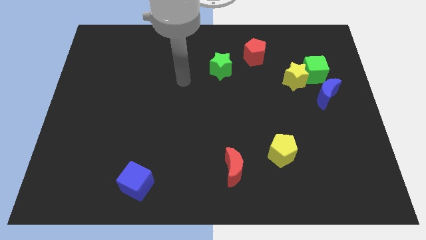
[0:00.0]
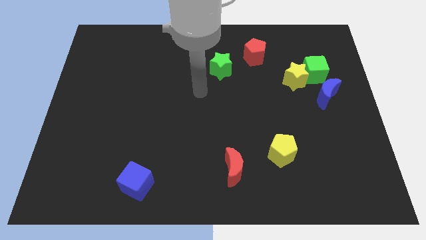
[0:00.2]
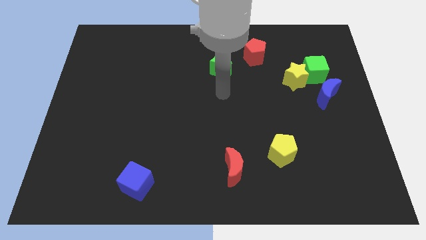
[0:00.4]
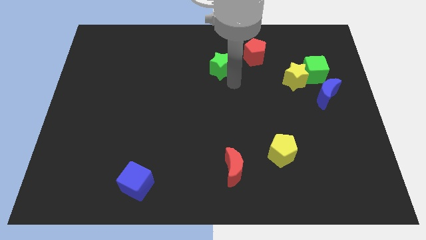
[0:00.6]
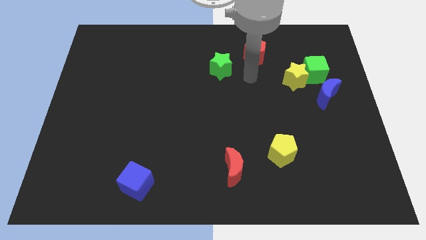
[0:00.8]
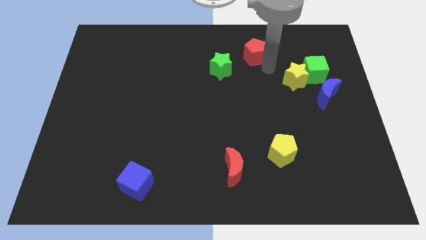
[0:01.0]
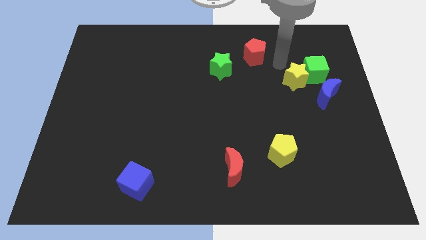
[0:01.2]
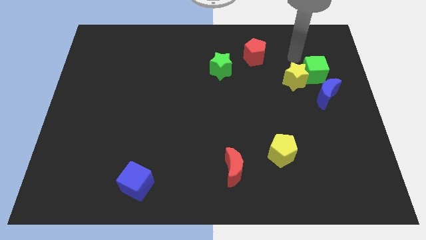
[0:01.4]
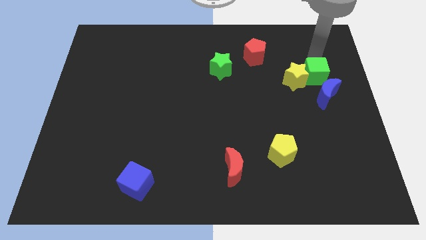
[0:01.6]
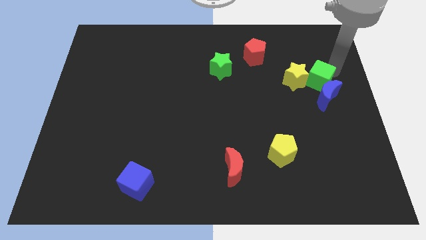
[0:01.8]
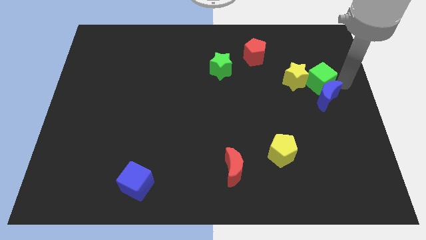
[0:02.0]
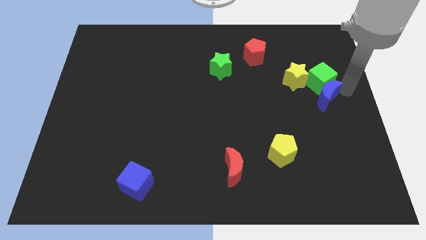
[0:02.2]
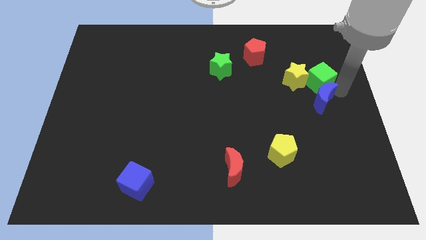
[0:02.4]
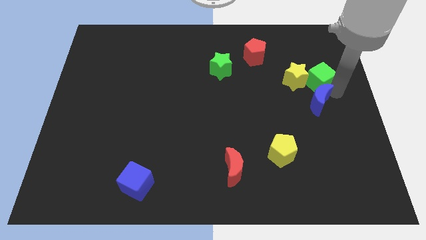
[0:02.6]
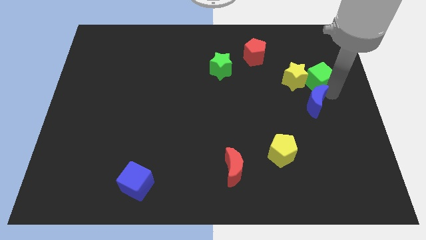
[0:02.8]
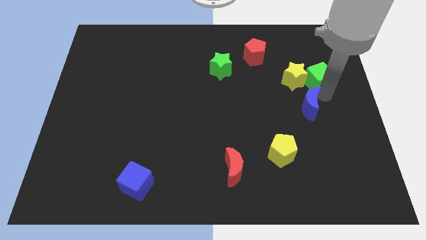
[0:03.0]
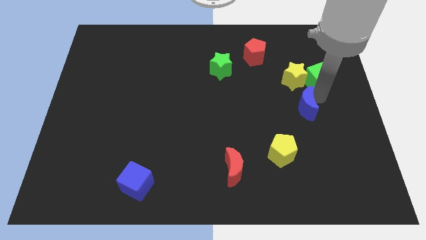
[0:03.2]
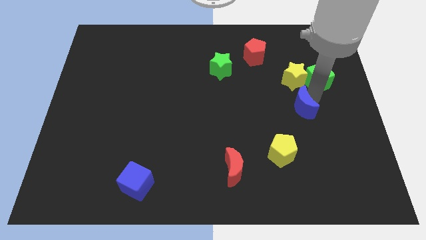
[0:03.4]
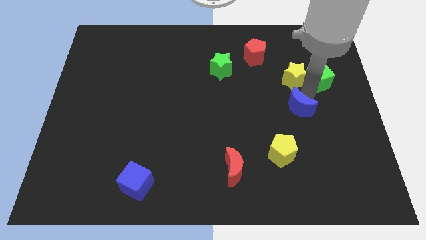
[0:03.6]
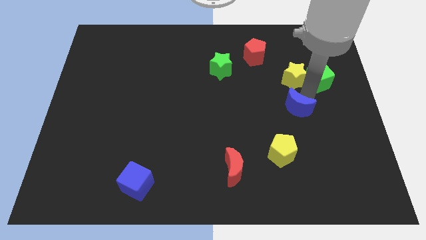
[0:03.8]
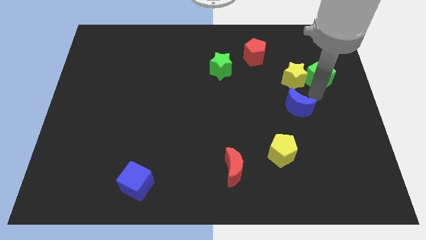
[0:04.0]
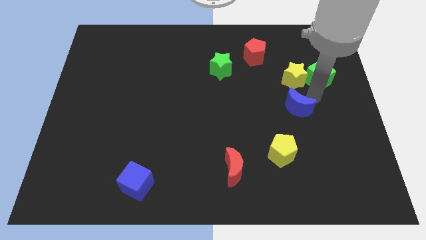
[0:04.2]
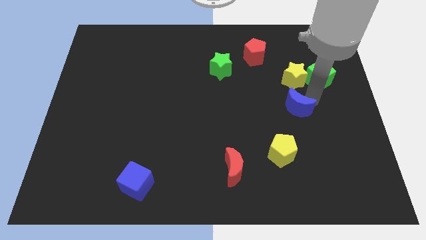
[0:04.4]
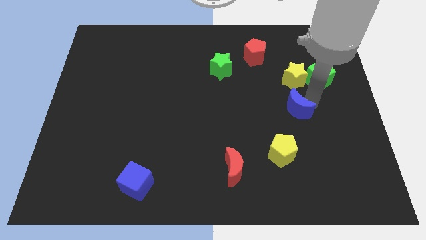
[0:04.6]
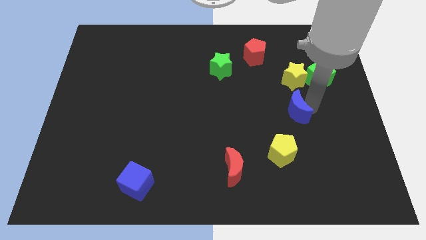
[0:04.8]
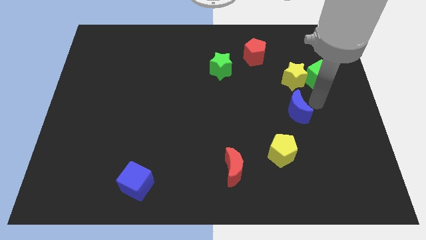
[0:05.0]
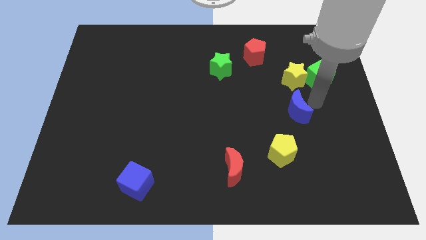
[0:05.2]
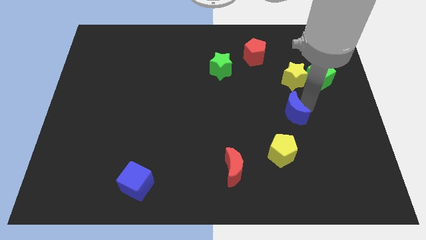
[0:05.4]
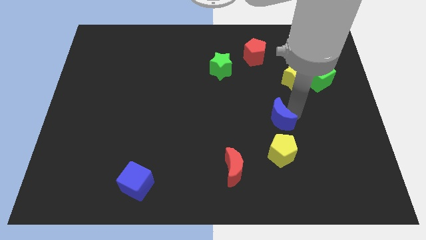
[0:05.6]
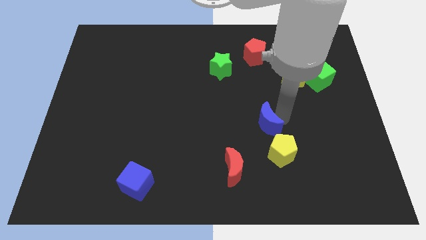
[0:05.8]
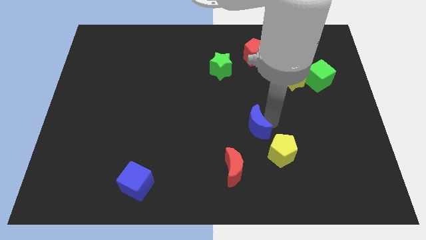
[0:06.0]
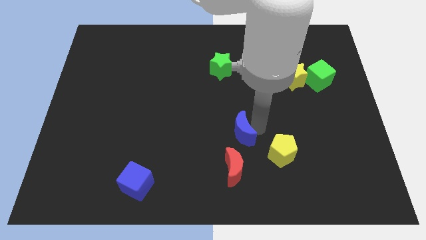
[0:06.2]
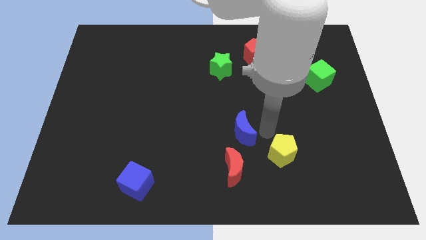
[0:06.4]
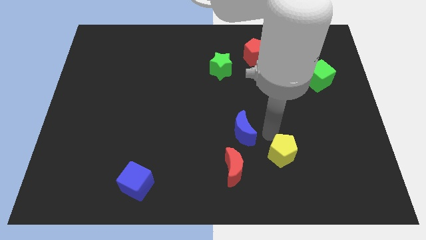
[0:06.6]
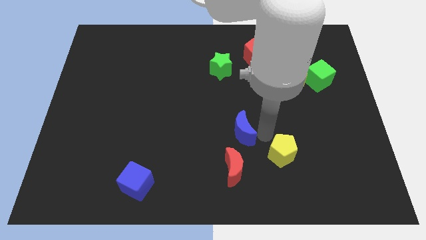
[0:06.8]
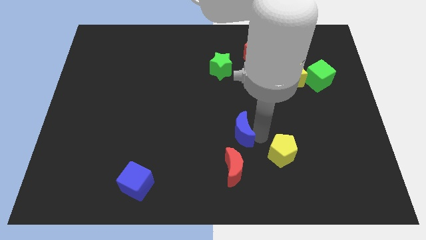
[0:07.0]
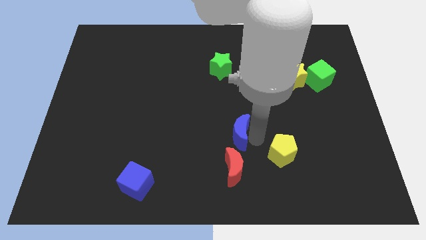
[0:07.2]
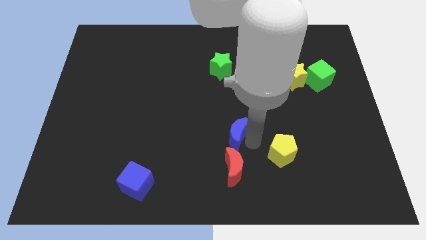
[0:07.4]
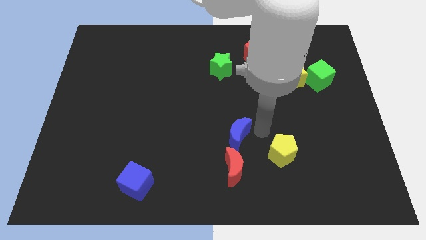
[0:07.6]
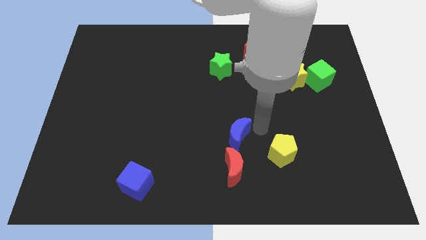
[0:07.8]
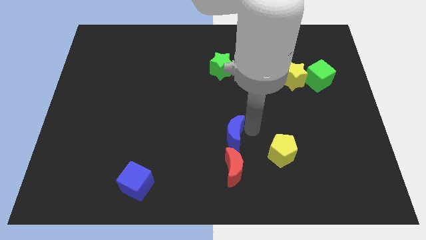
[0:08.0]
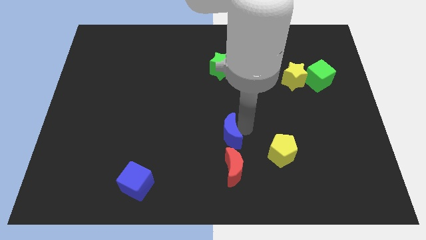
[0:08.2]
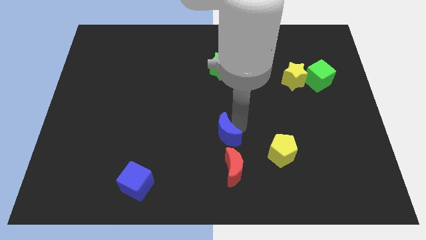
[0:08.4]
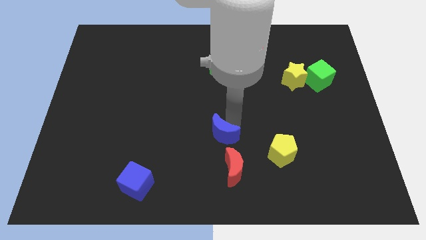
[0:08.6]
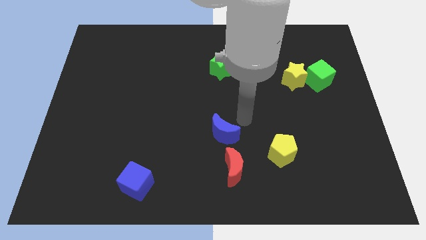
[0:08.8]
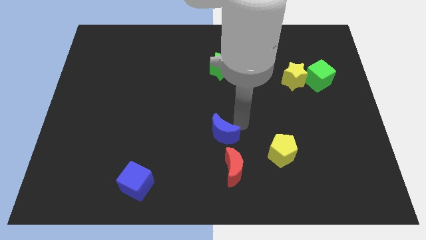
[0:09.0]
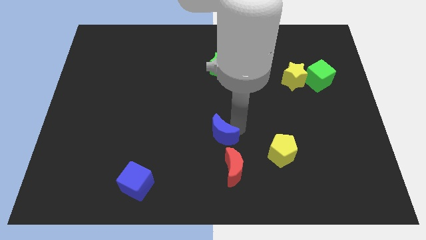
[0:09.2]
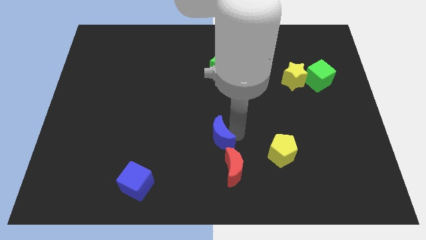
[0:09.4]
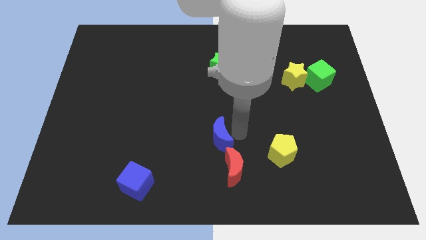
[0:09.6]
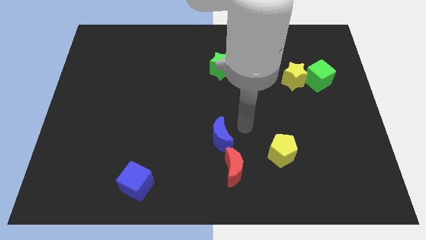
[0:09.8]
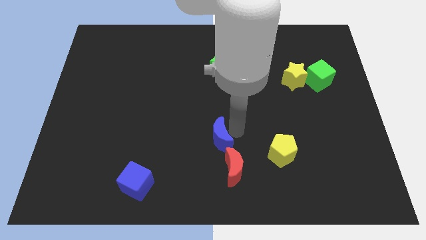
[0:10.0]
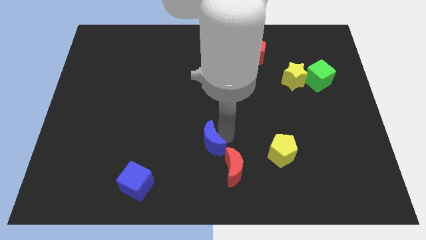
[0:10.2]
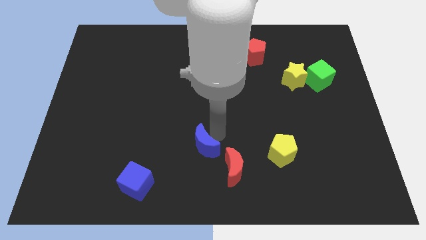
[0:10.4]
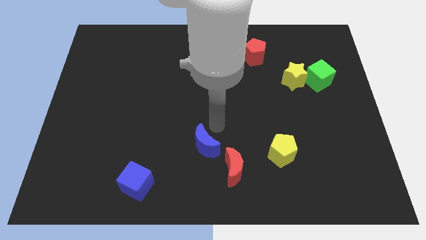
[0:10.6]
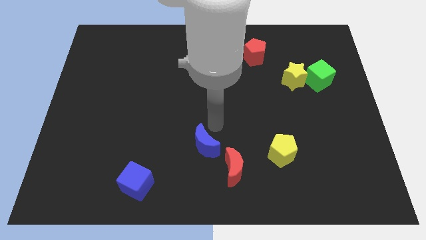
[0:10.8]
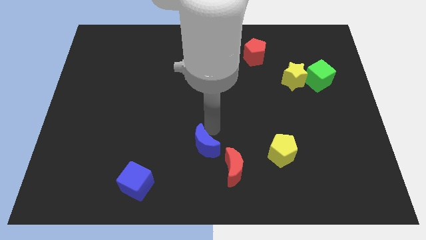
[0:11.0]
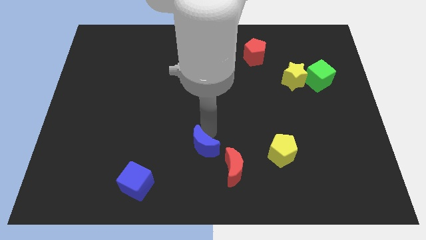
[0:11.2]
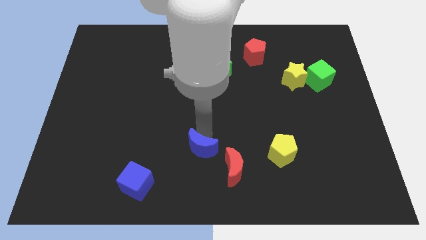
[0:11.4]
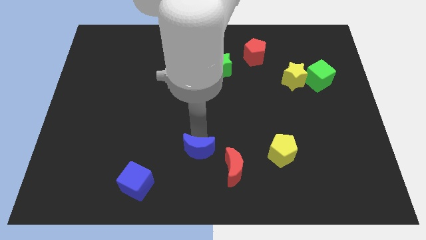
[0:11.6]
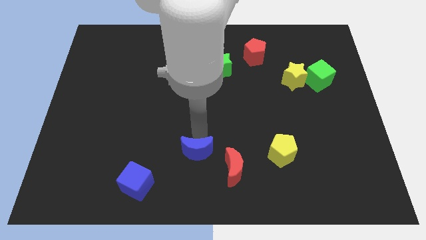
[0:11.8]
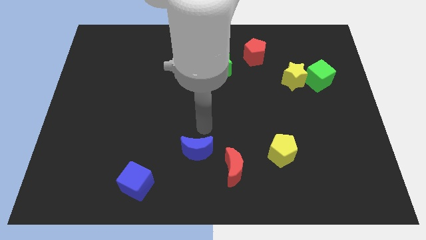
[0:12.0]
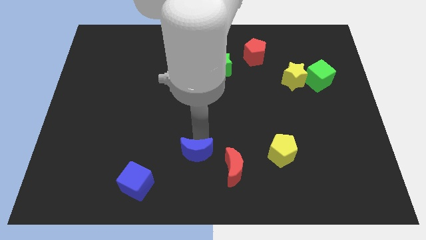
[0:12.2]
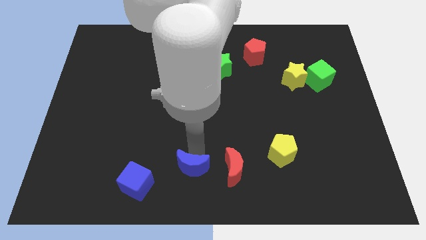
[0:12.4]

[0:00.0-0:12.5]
move the blue moon to the right of the blue cube

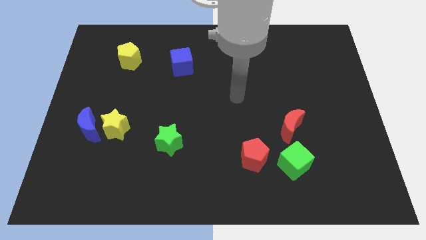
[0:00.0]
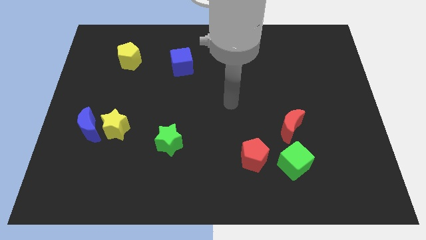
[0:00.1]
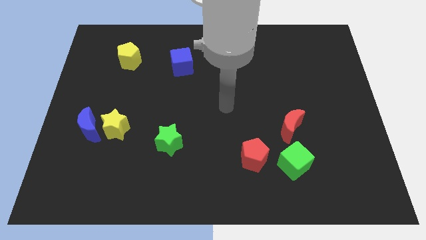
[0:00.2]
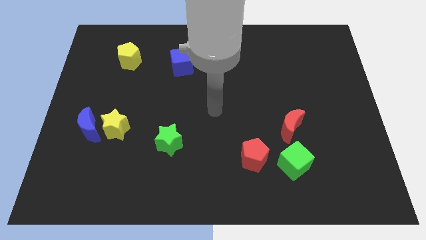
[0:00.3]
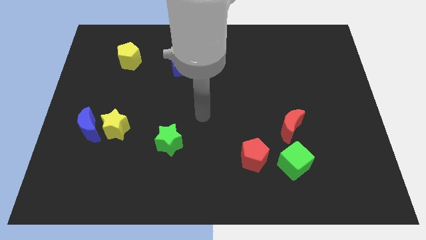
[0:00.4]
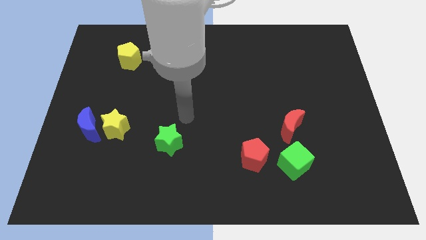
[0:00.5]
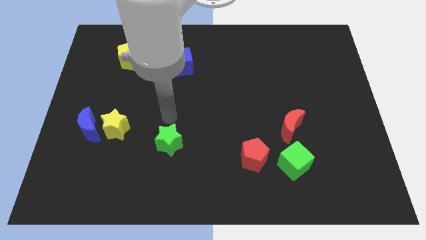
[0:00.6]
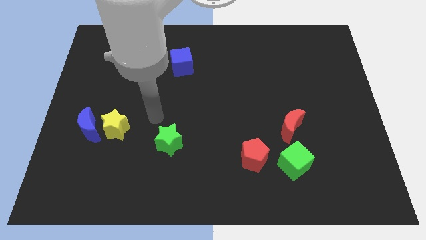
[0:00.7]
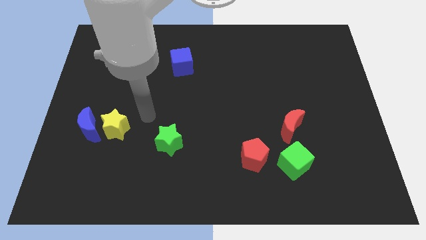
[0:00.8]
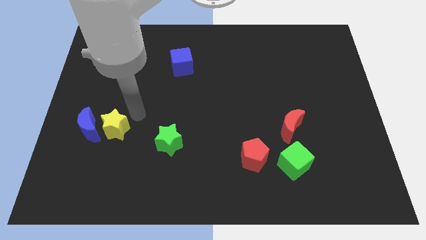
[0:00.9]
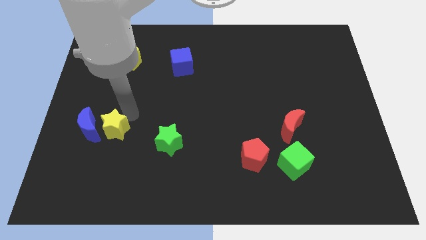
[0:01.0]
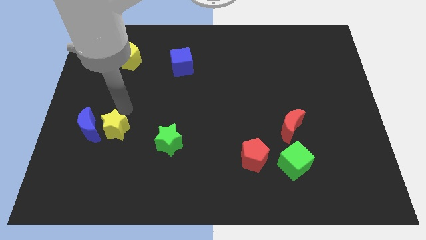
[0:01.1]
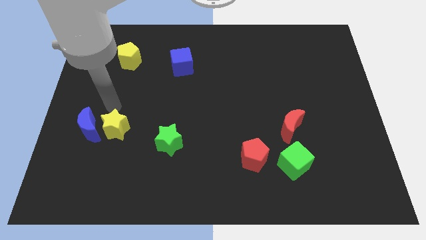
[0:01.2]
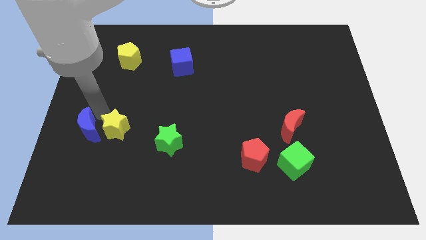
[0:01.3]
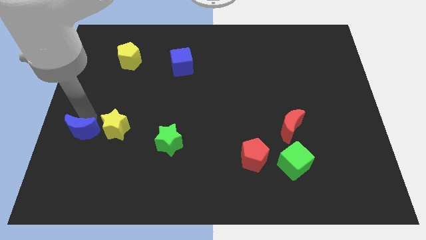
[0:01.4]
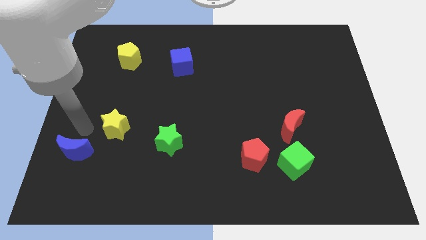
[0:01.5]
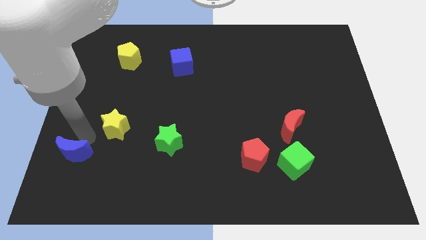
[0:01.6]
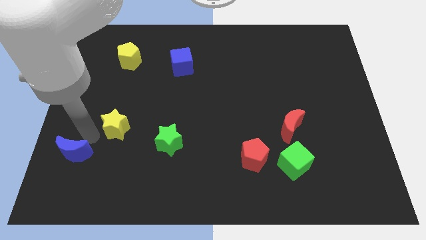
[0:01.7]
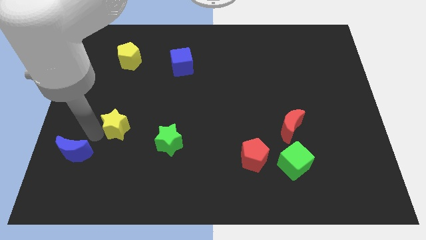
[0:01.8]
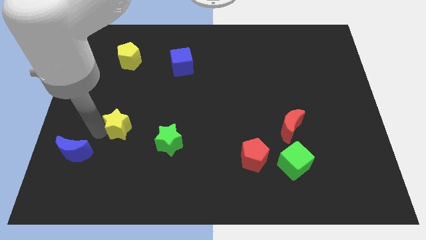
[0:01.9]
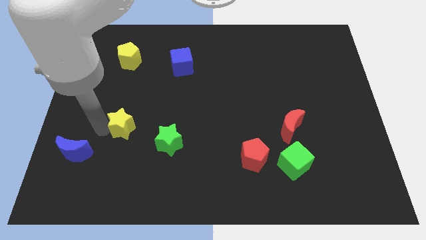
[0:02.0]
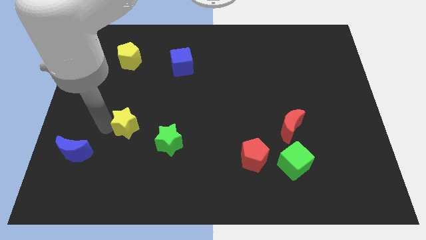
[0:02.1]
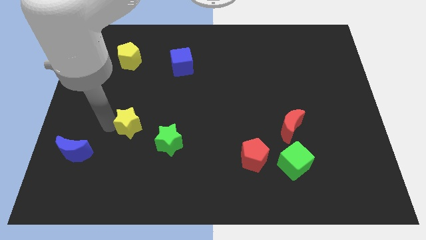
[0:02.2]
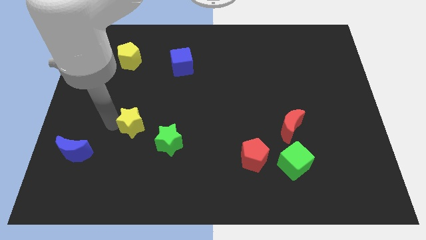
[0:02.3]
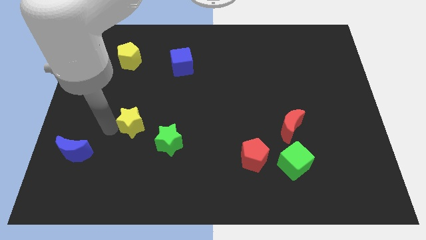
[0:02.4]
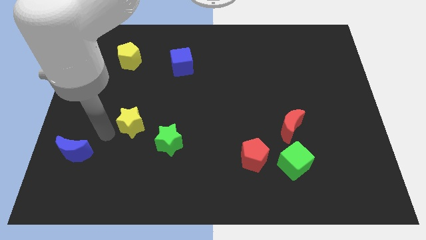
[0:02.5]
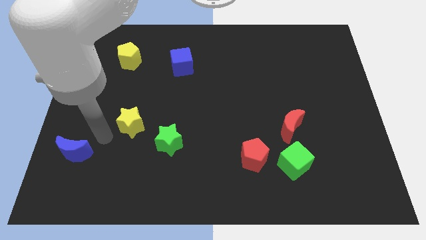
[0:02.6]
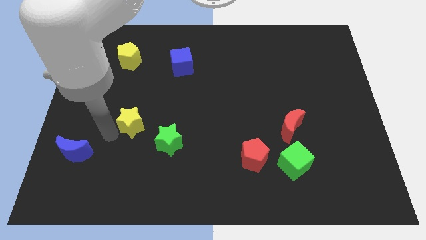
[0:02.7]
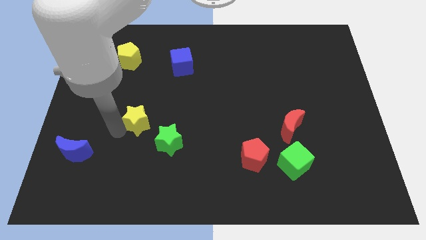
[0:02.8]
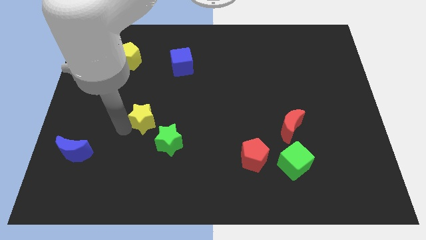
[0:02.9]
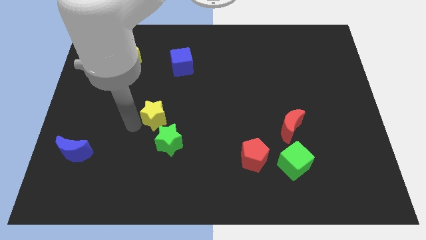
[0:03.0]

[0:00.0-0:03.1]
push the yellow star above the green star
